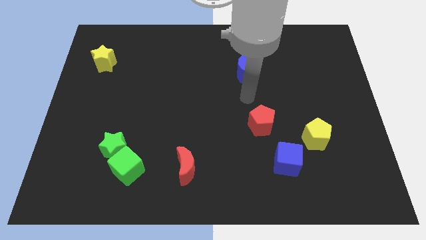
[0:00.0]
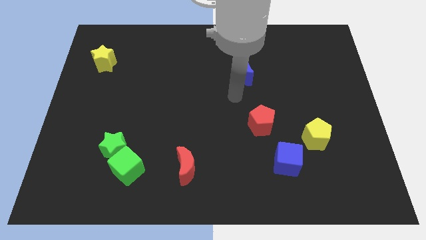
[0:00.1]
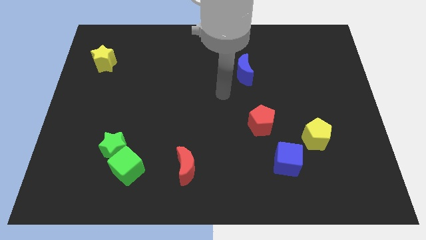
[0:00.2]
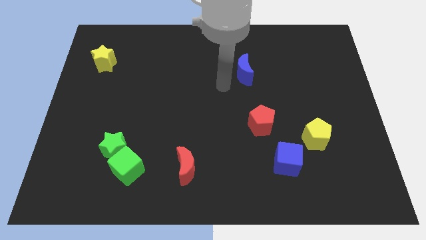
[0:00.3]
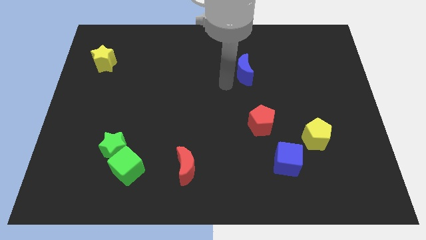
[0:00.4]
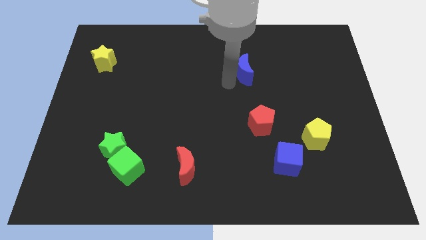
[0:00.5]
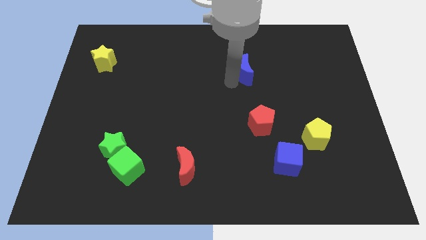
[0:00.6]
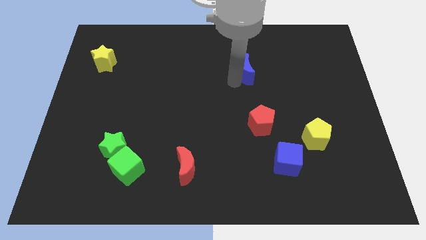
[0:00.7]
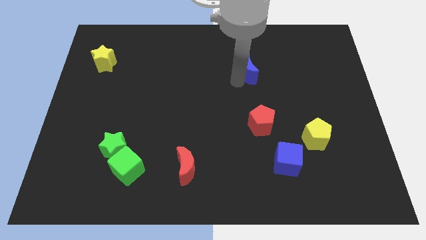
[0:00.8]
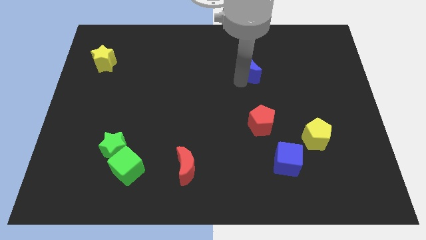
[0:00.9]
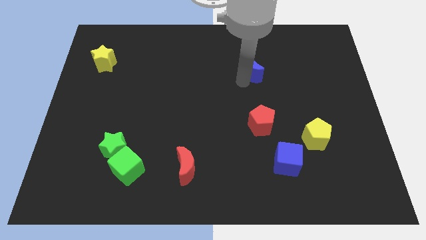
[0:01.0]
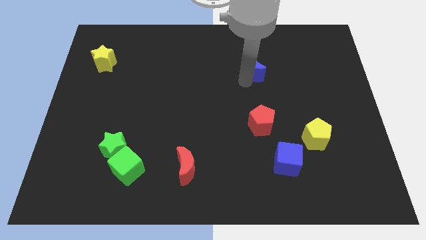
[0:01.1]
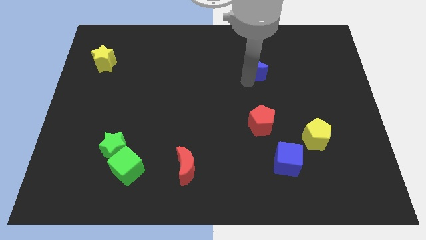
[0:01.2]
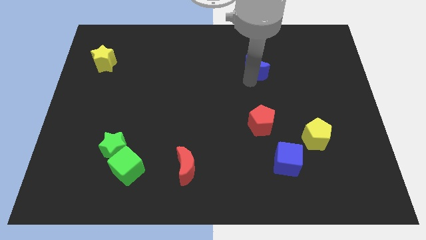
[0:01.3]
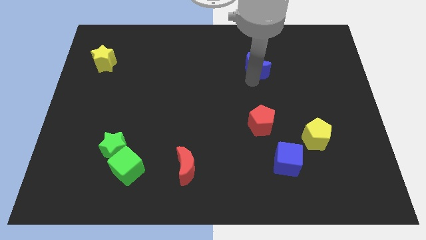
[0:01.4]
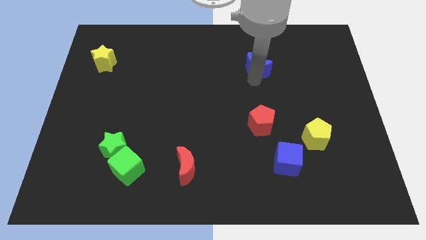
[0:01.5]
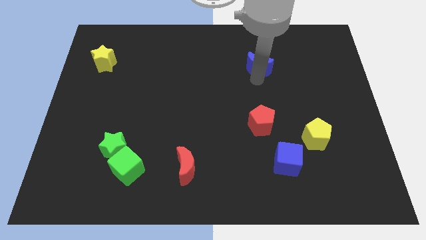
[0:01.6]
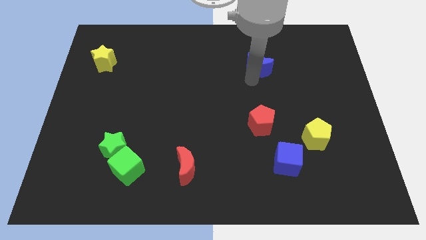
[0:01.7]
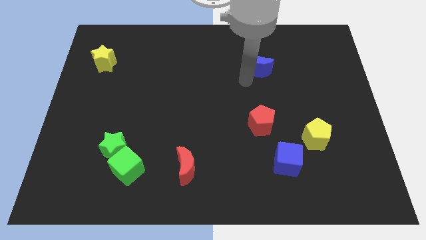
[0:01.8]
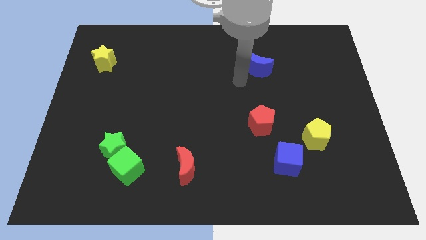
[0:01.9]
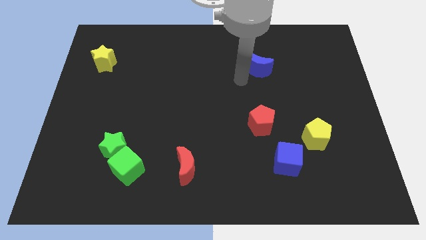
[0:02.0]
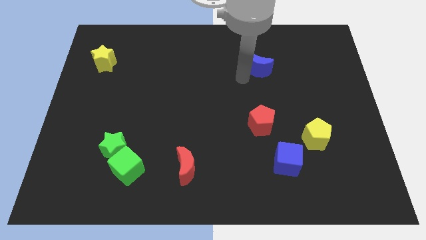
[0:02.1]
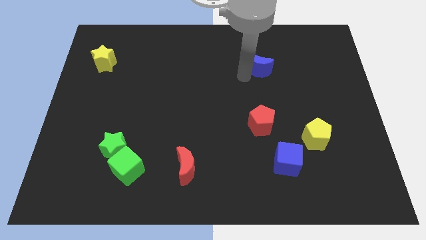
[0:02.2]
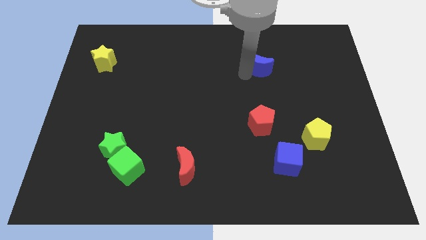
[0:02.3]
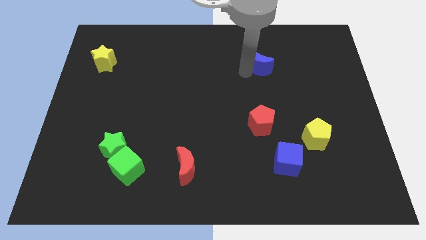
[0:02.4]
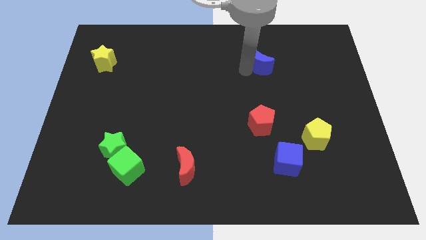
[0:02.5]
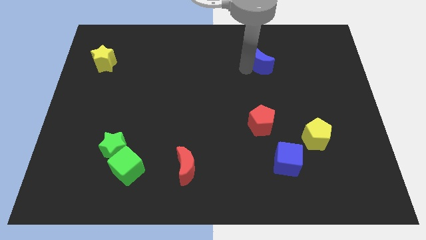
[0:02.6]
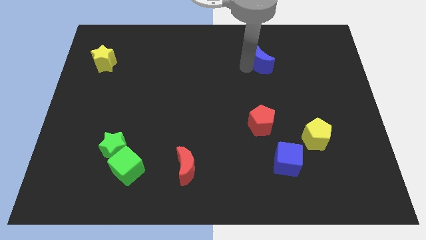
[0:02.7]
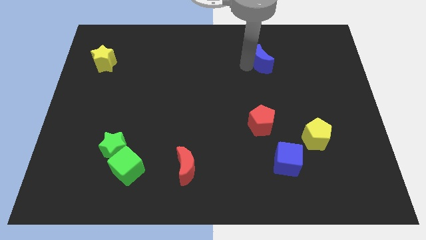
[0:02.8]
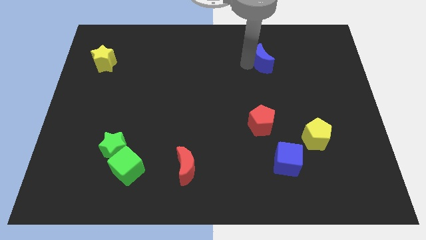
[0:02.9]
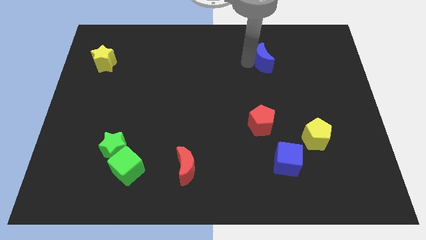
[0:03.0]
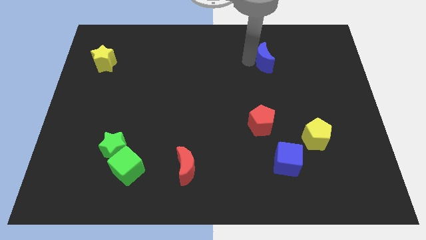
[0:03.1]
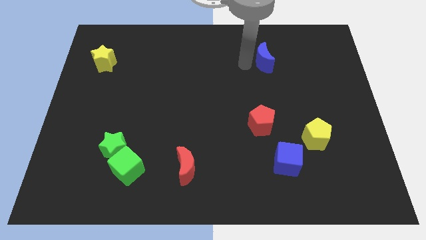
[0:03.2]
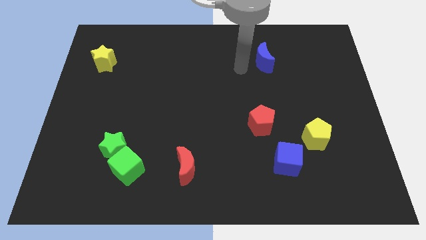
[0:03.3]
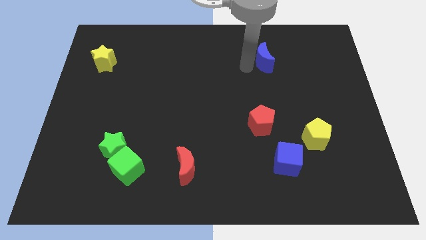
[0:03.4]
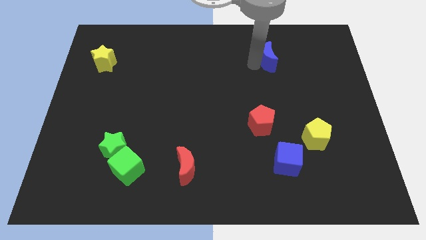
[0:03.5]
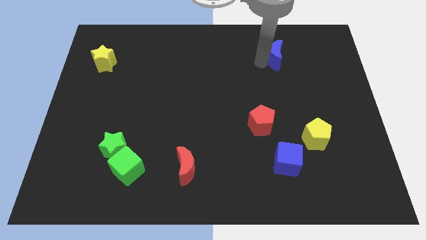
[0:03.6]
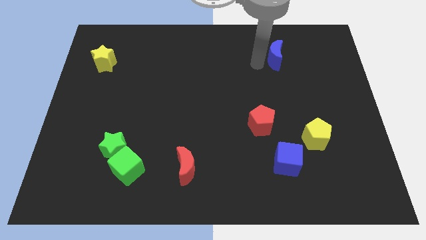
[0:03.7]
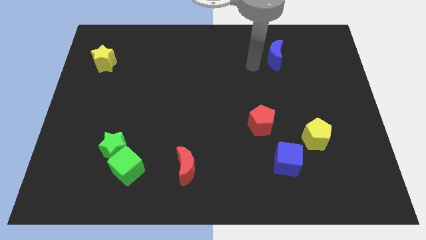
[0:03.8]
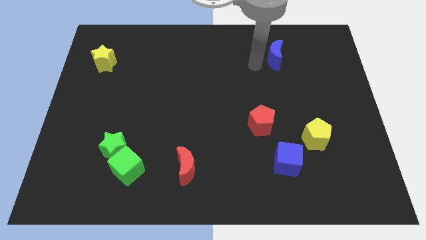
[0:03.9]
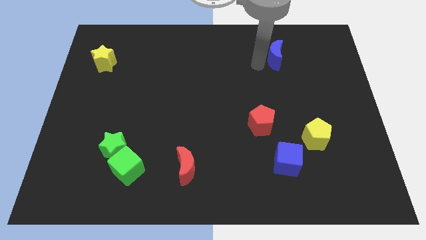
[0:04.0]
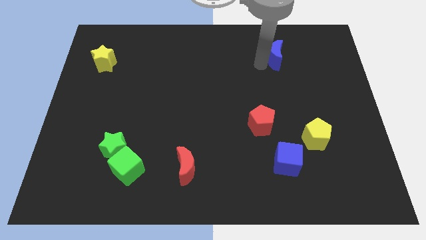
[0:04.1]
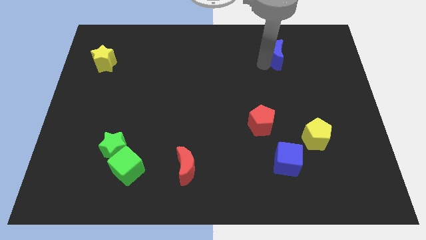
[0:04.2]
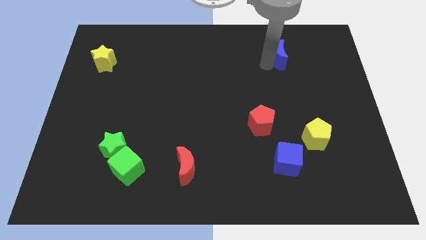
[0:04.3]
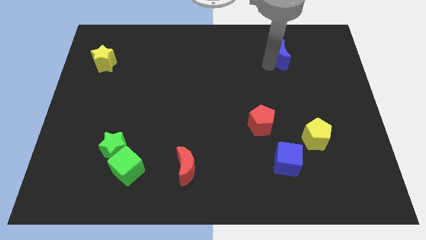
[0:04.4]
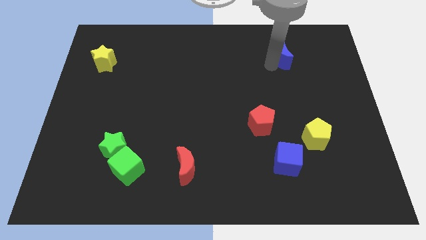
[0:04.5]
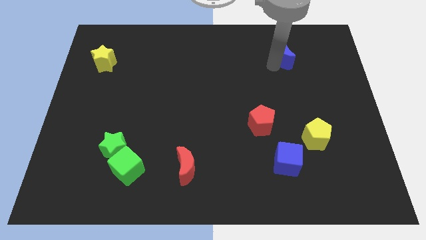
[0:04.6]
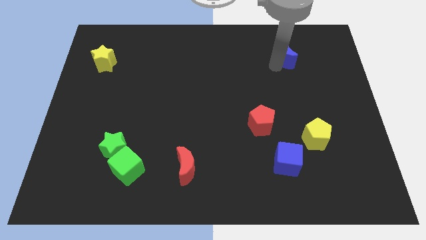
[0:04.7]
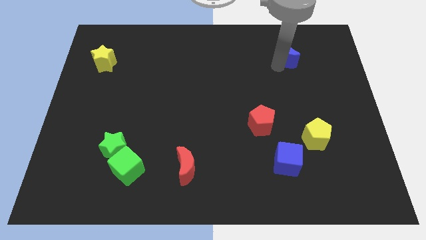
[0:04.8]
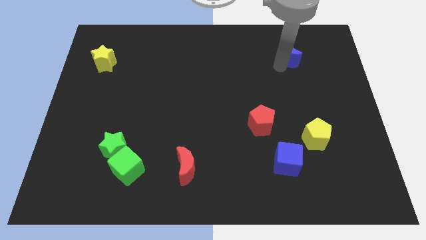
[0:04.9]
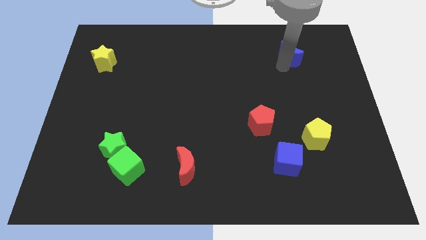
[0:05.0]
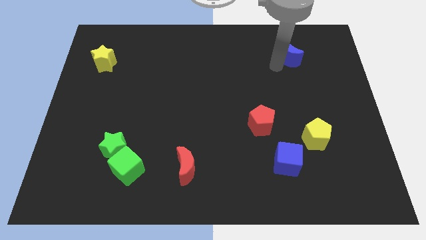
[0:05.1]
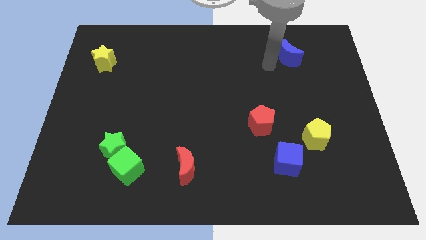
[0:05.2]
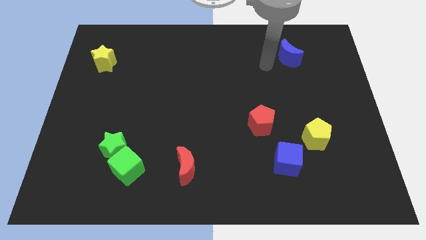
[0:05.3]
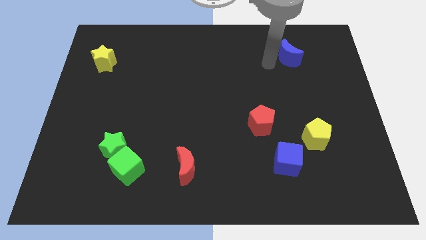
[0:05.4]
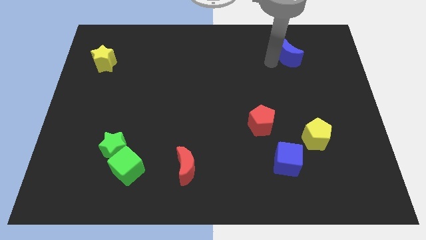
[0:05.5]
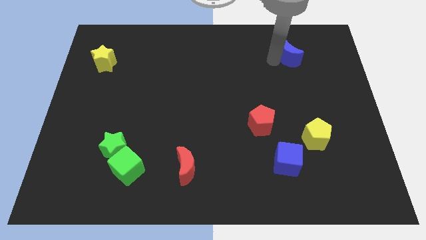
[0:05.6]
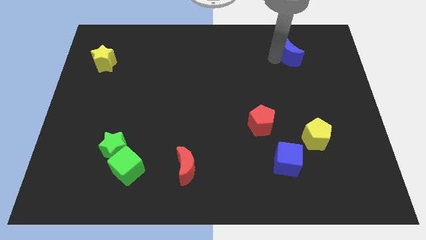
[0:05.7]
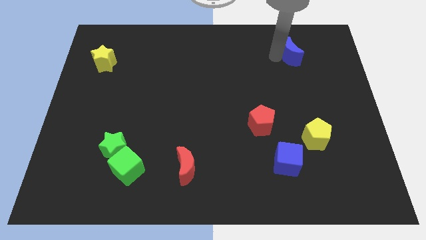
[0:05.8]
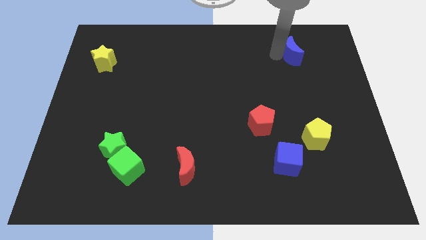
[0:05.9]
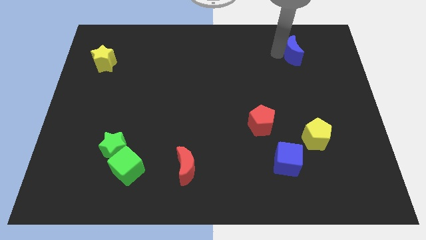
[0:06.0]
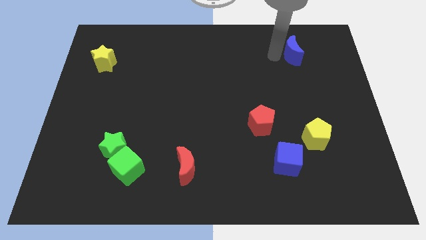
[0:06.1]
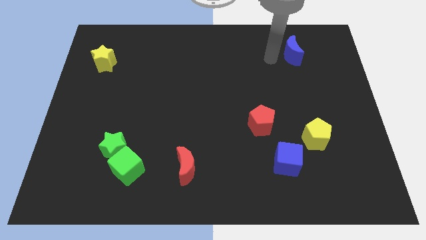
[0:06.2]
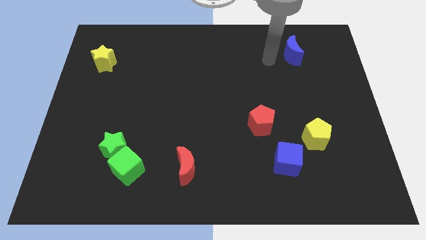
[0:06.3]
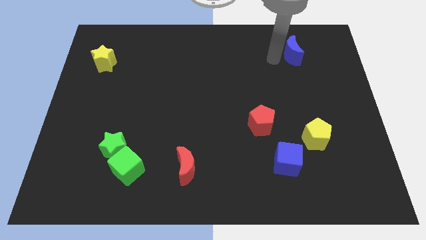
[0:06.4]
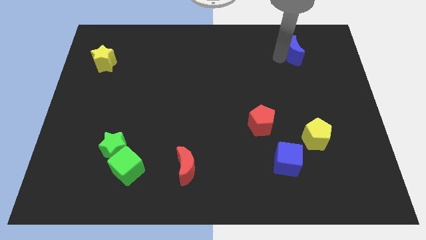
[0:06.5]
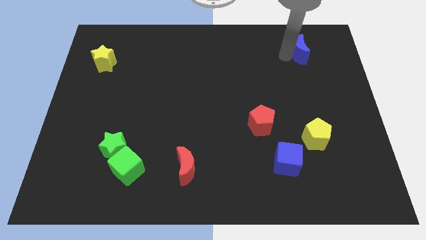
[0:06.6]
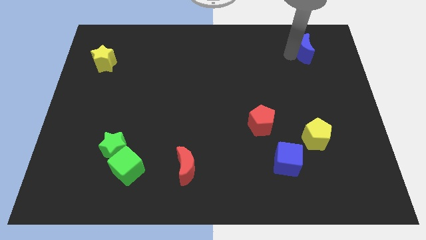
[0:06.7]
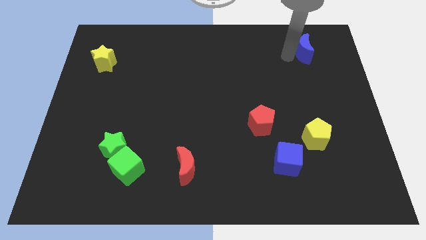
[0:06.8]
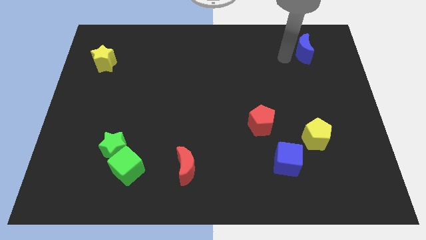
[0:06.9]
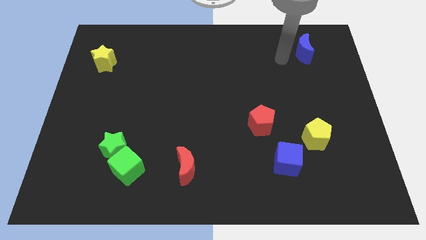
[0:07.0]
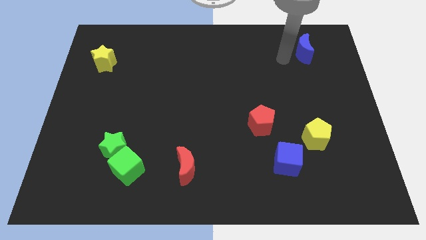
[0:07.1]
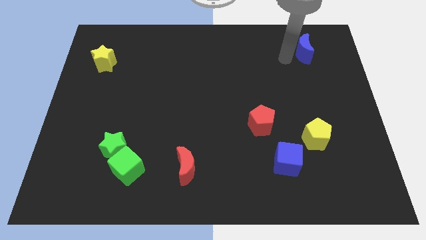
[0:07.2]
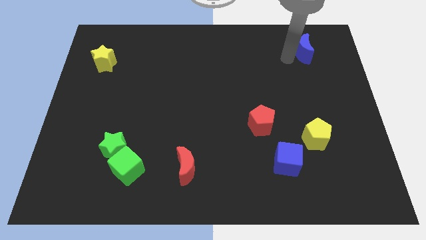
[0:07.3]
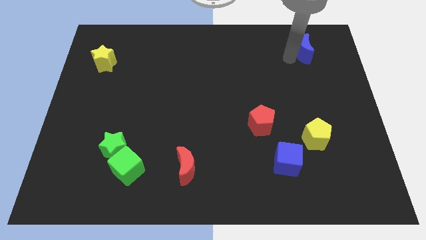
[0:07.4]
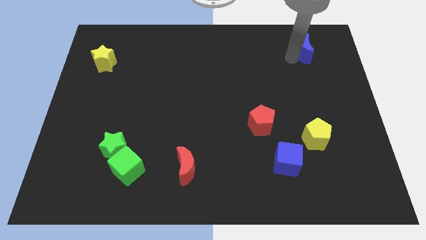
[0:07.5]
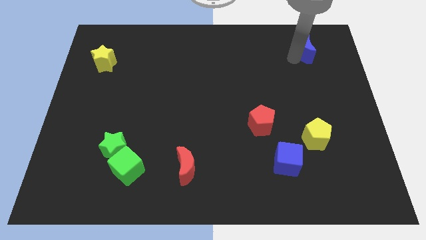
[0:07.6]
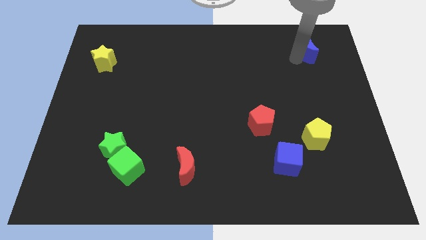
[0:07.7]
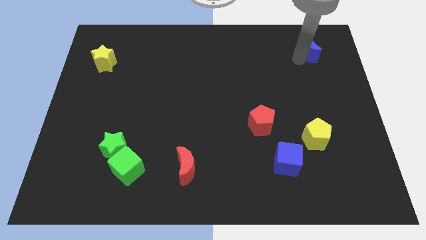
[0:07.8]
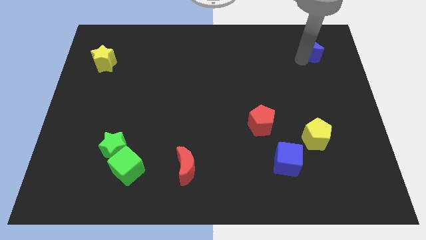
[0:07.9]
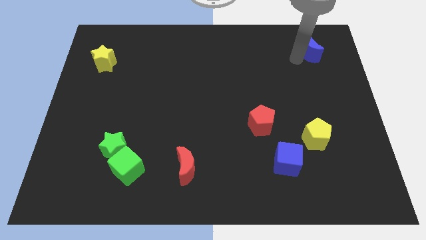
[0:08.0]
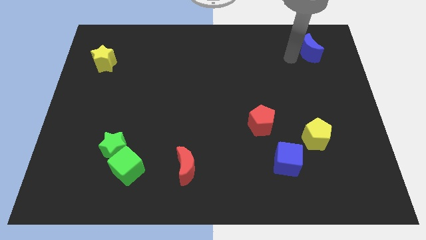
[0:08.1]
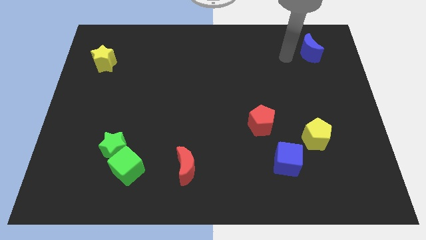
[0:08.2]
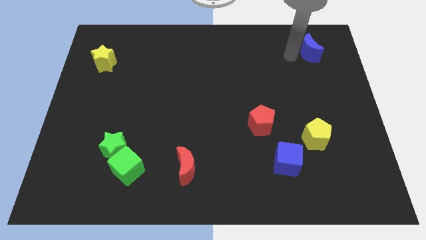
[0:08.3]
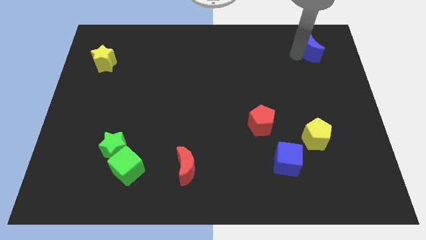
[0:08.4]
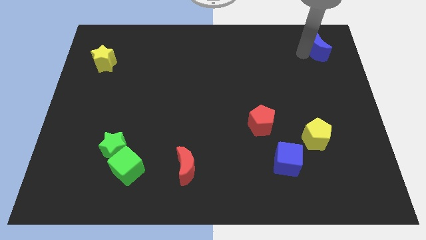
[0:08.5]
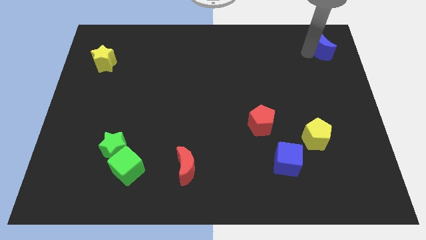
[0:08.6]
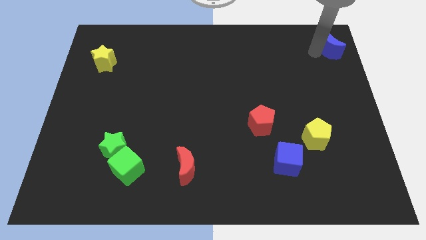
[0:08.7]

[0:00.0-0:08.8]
slide the blue moon to the upper right corner
